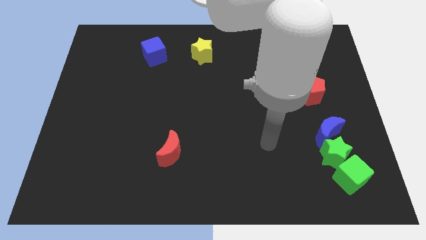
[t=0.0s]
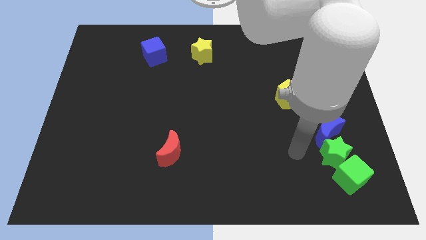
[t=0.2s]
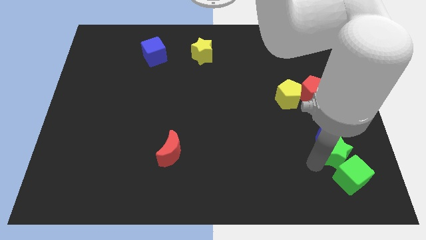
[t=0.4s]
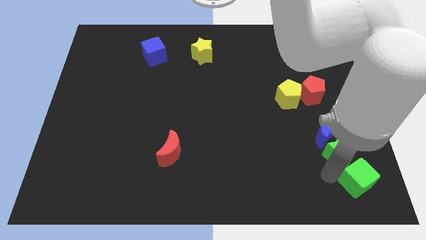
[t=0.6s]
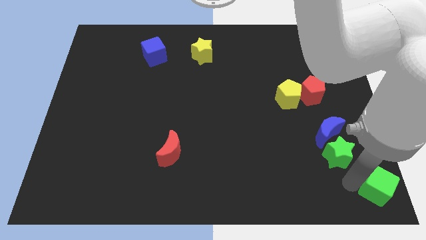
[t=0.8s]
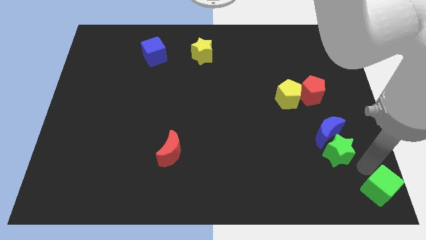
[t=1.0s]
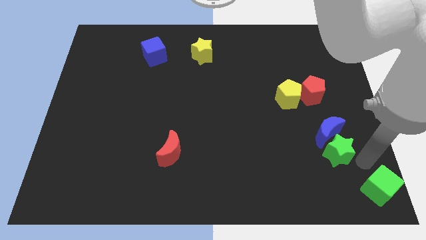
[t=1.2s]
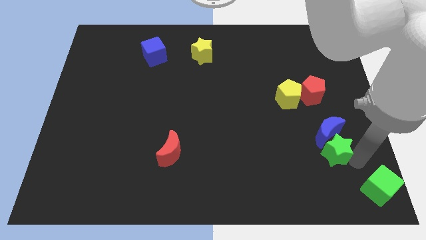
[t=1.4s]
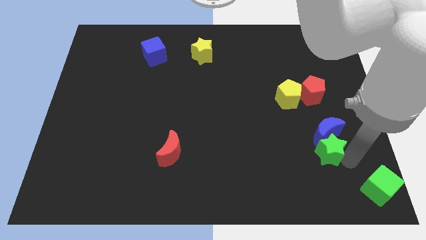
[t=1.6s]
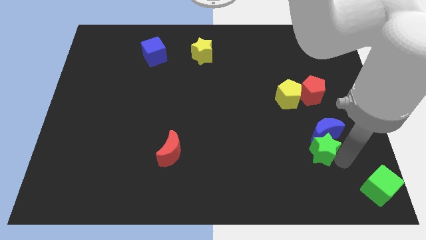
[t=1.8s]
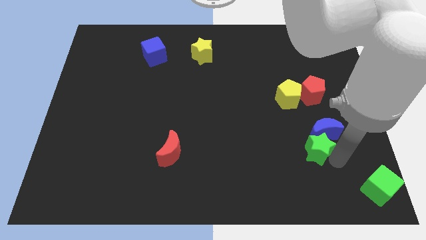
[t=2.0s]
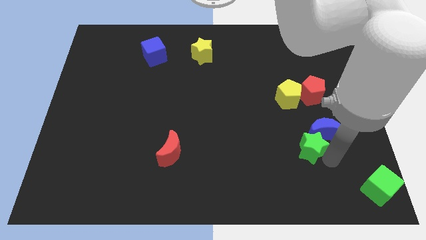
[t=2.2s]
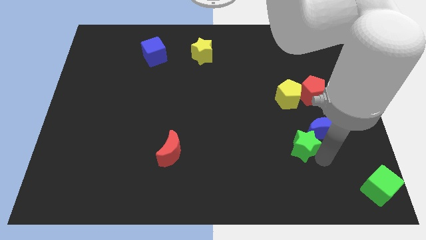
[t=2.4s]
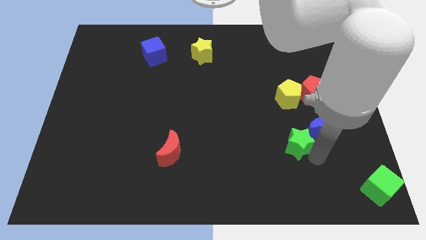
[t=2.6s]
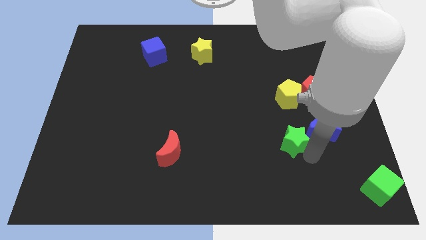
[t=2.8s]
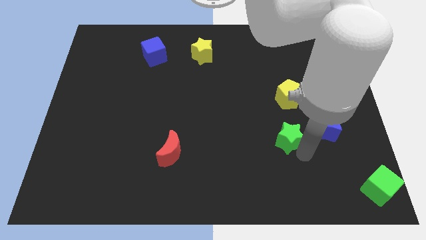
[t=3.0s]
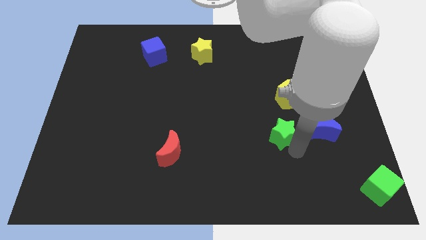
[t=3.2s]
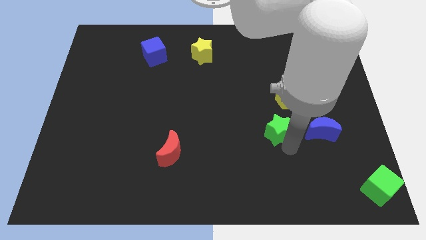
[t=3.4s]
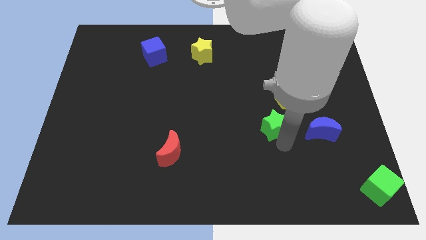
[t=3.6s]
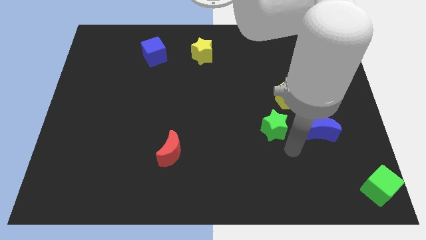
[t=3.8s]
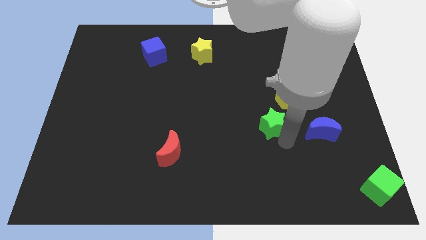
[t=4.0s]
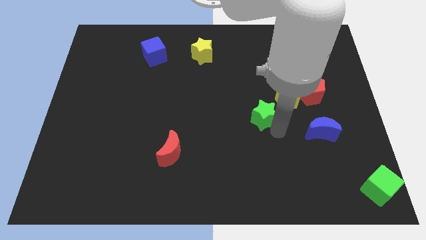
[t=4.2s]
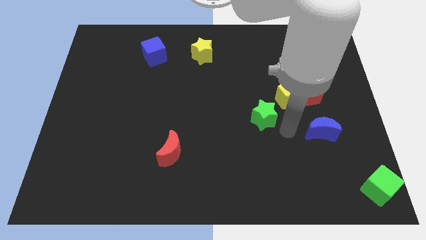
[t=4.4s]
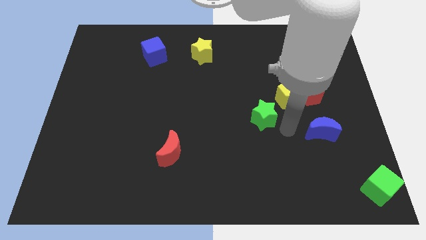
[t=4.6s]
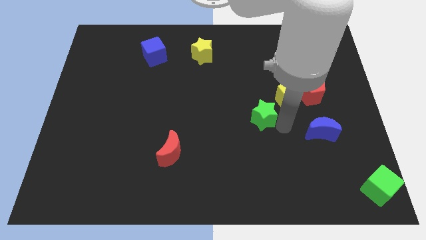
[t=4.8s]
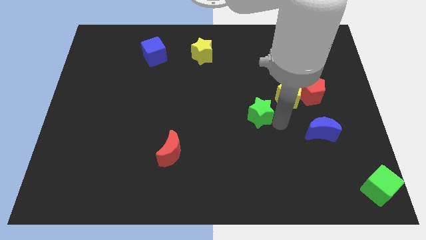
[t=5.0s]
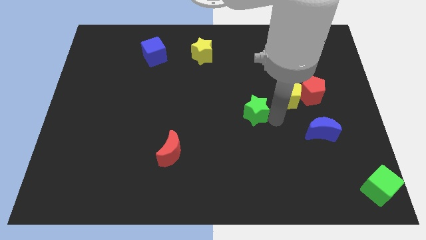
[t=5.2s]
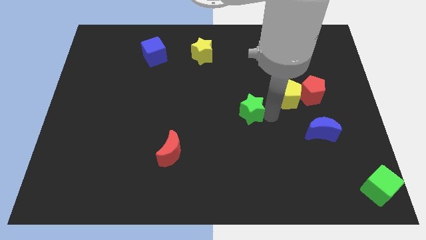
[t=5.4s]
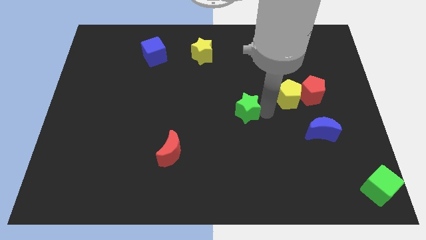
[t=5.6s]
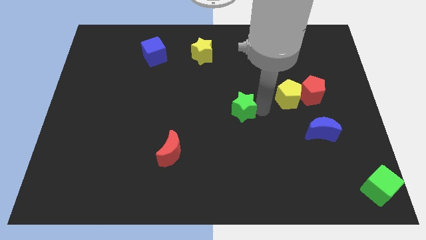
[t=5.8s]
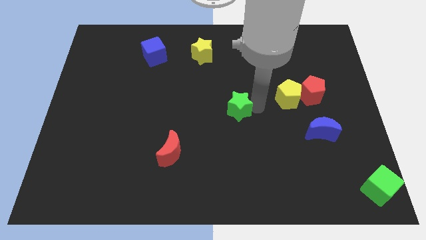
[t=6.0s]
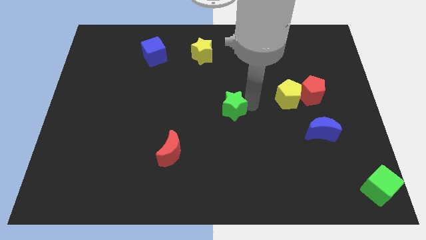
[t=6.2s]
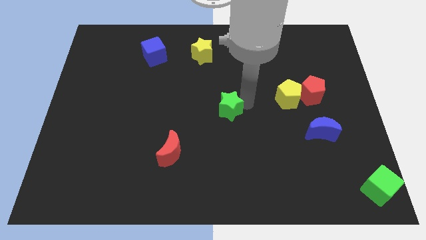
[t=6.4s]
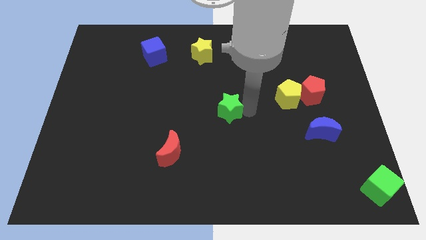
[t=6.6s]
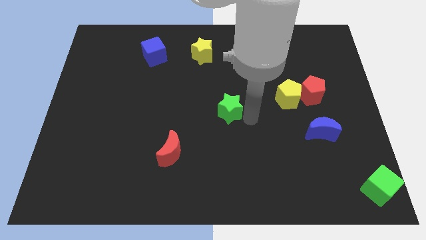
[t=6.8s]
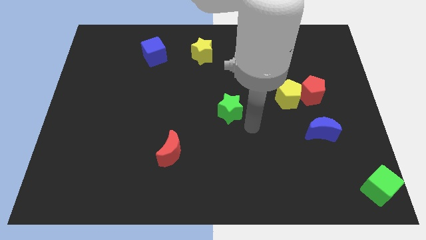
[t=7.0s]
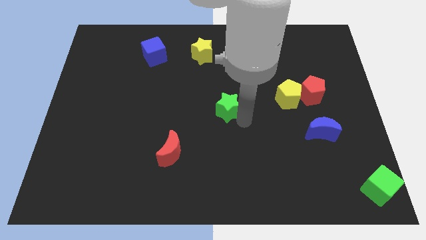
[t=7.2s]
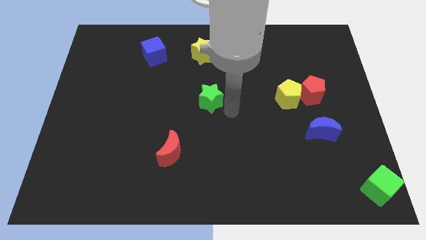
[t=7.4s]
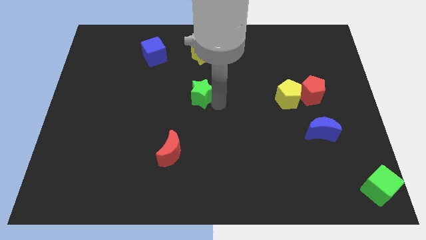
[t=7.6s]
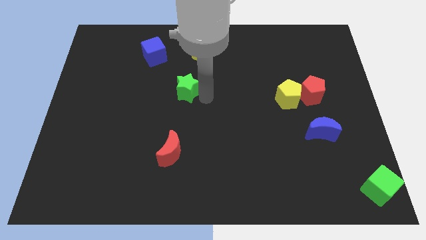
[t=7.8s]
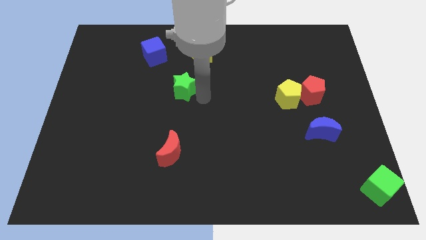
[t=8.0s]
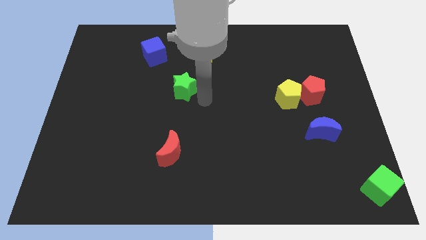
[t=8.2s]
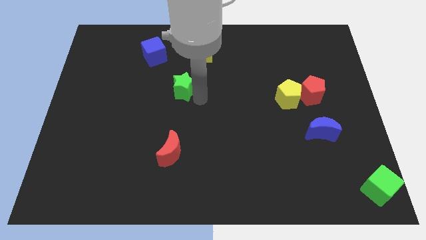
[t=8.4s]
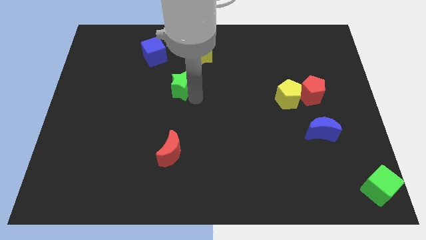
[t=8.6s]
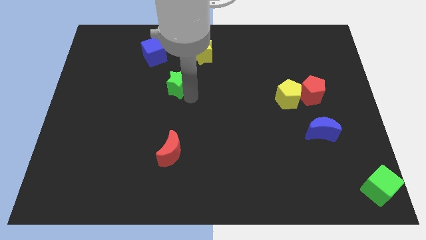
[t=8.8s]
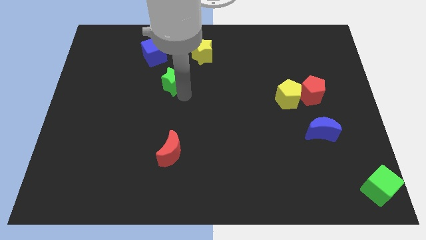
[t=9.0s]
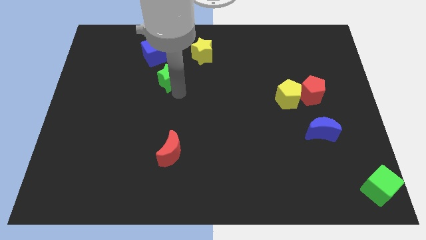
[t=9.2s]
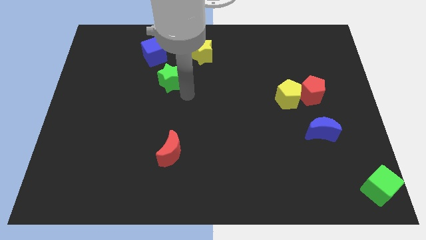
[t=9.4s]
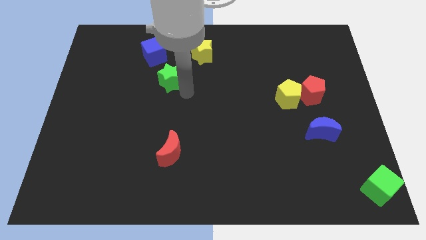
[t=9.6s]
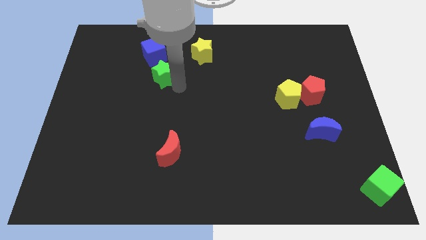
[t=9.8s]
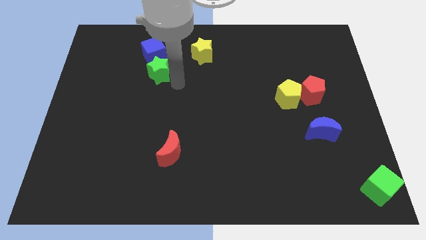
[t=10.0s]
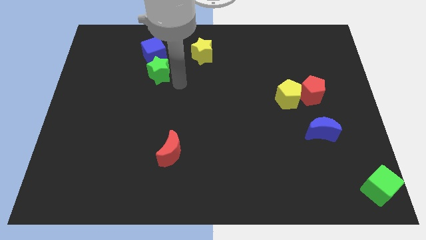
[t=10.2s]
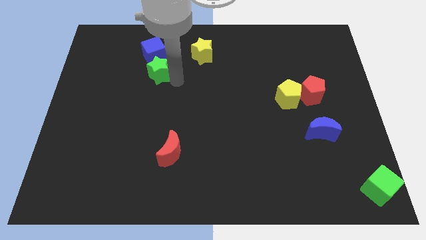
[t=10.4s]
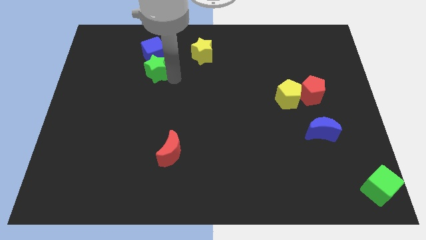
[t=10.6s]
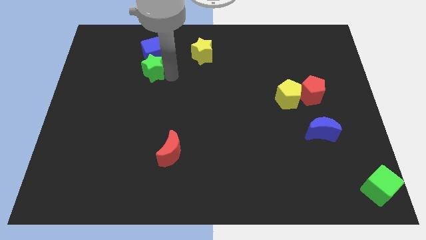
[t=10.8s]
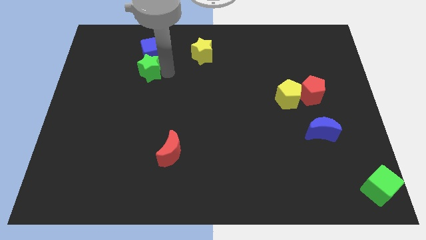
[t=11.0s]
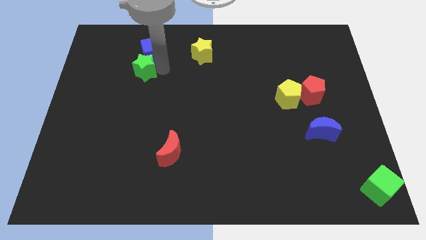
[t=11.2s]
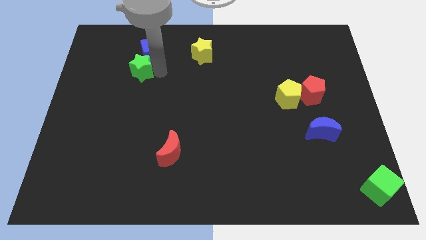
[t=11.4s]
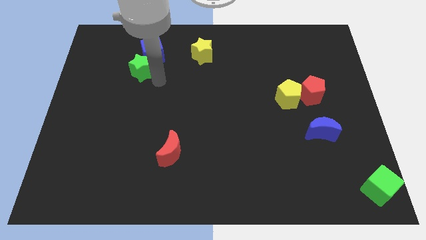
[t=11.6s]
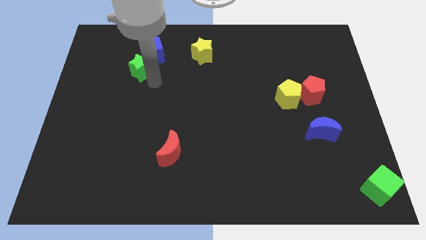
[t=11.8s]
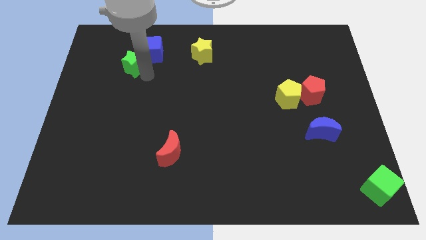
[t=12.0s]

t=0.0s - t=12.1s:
put the green star left of the blue cube

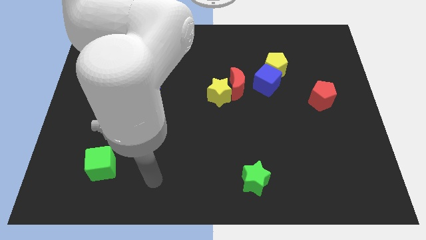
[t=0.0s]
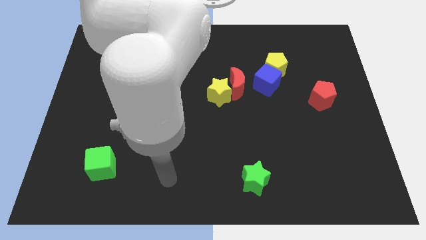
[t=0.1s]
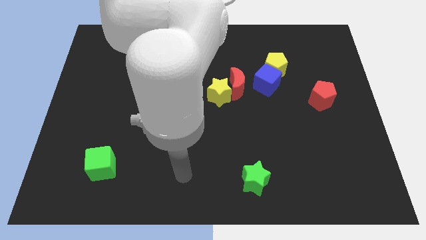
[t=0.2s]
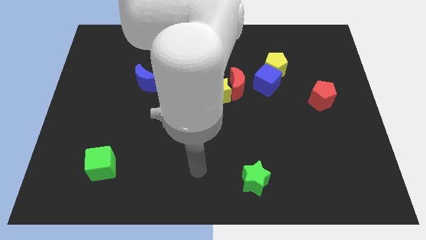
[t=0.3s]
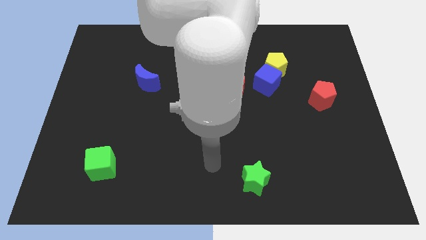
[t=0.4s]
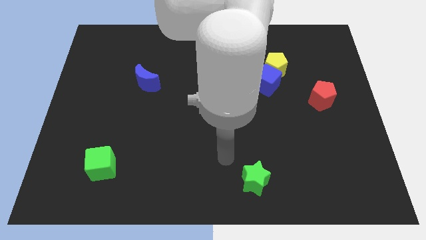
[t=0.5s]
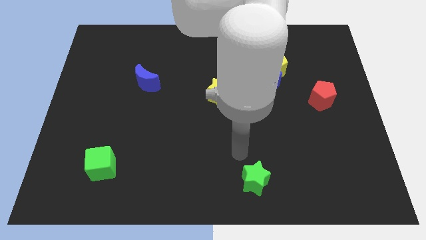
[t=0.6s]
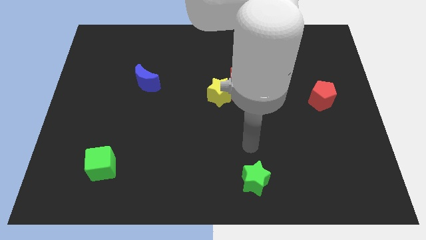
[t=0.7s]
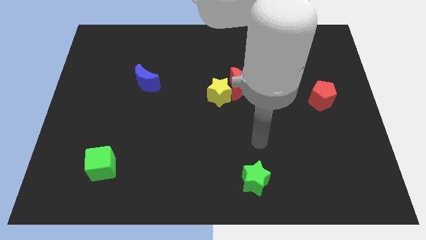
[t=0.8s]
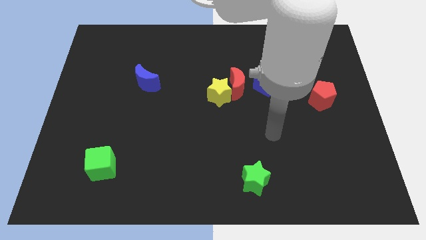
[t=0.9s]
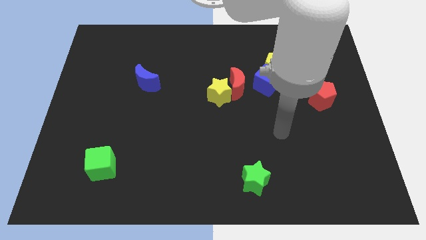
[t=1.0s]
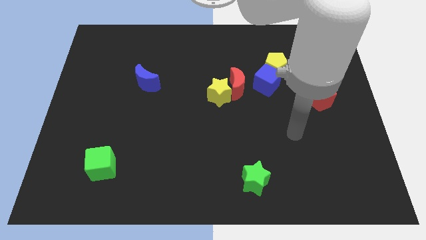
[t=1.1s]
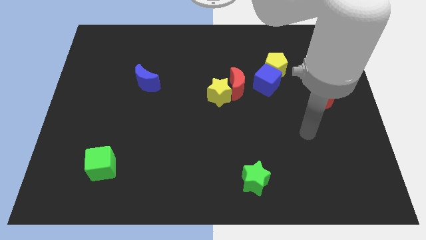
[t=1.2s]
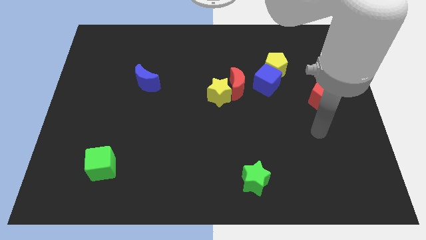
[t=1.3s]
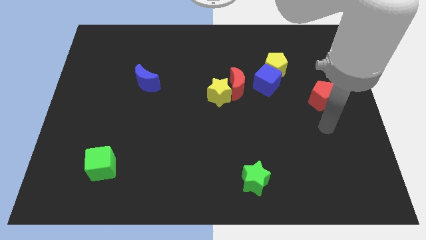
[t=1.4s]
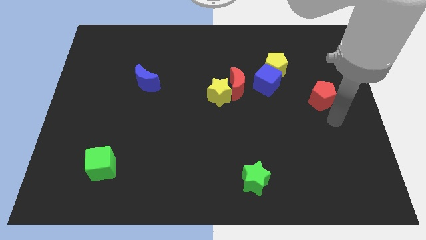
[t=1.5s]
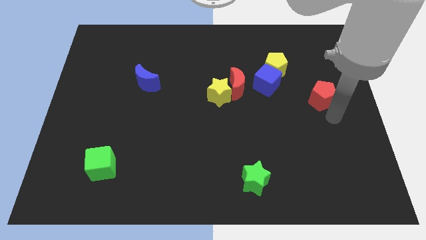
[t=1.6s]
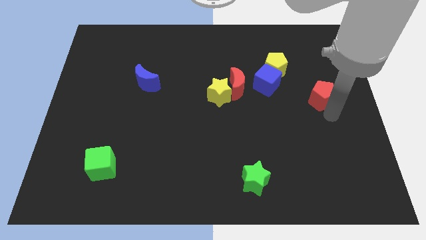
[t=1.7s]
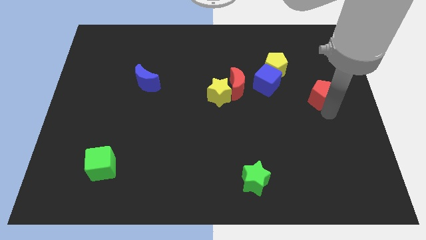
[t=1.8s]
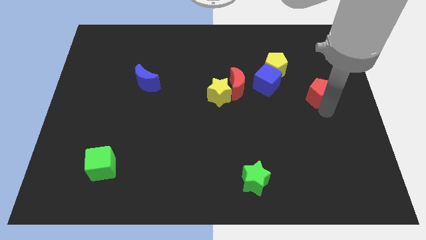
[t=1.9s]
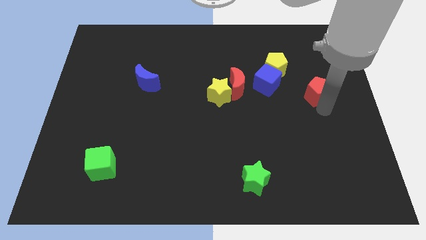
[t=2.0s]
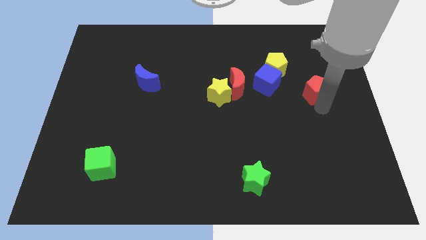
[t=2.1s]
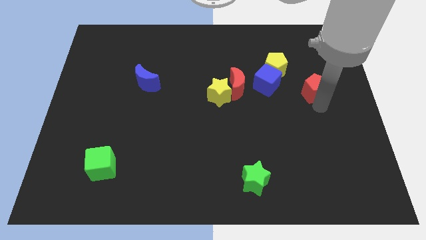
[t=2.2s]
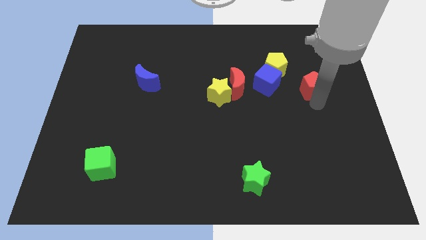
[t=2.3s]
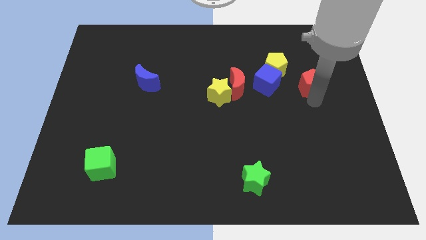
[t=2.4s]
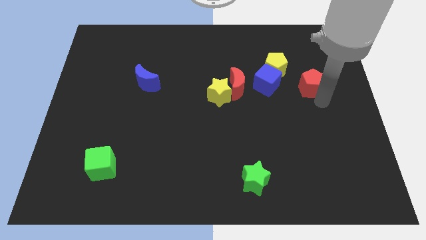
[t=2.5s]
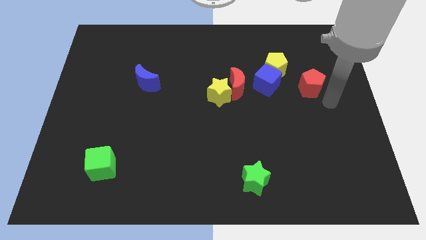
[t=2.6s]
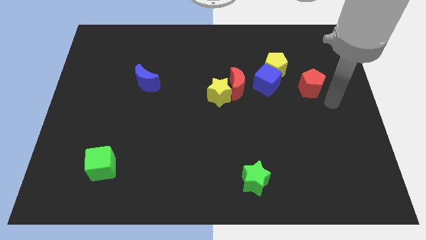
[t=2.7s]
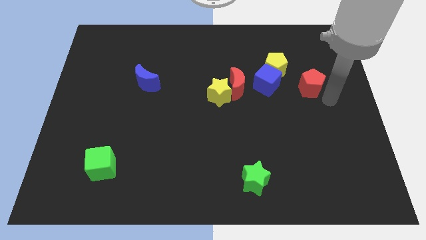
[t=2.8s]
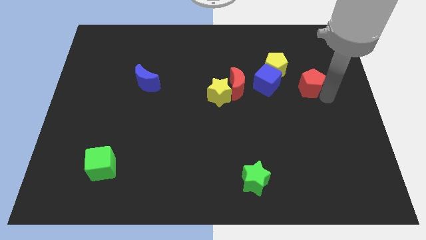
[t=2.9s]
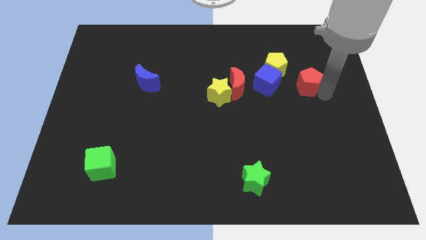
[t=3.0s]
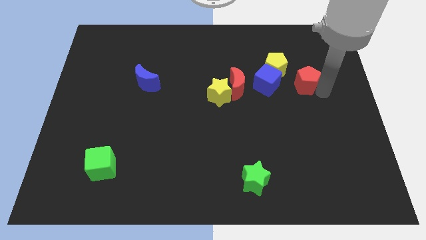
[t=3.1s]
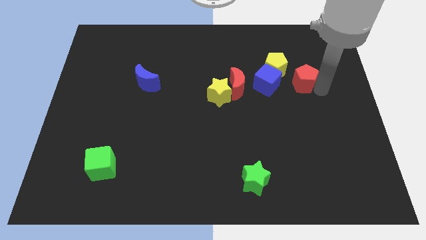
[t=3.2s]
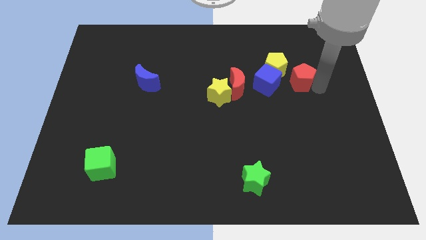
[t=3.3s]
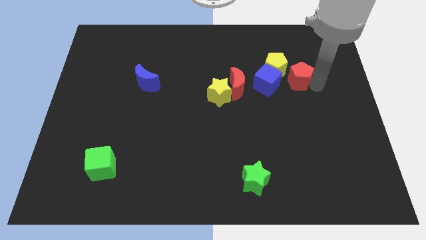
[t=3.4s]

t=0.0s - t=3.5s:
push the red pentagon to the top right side of the blue cube
